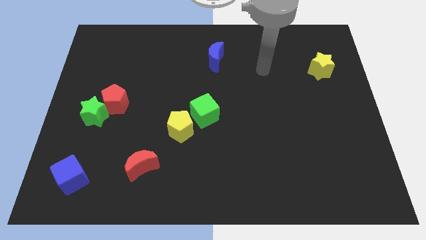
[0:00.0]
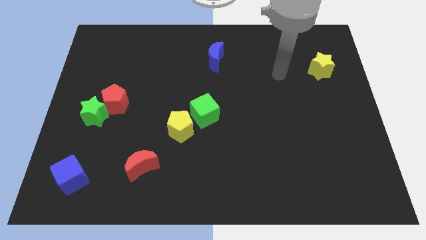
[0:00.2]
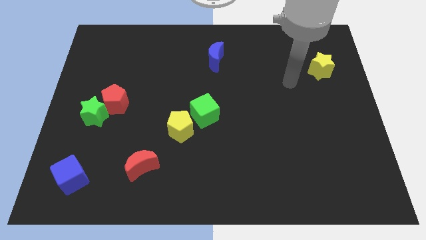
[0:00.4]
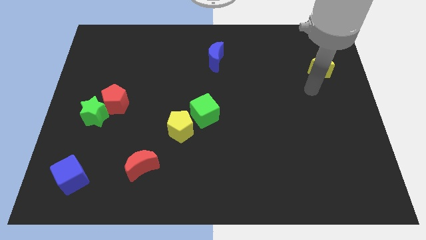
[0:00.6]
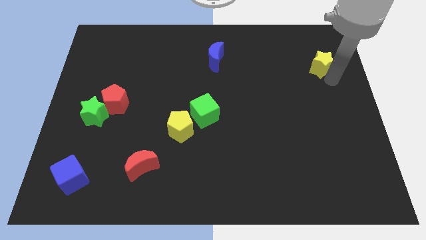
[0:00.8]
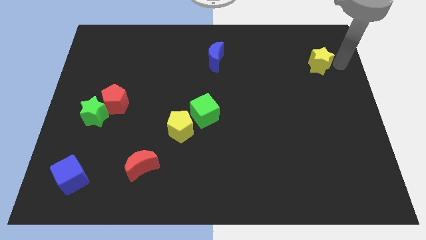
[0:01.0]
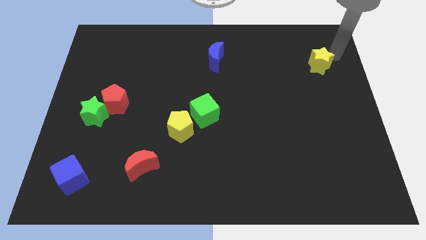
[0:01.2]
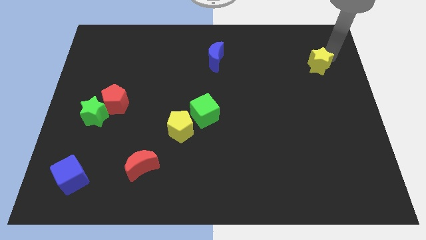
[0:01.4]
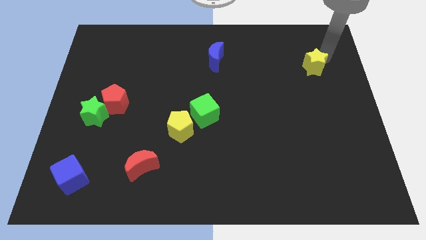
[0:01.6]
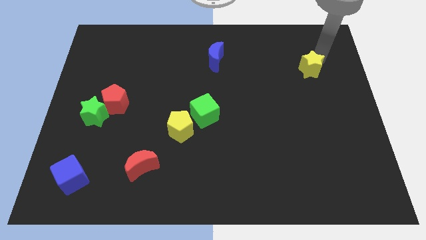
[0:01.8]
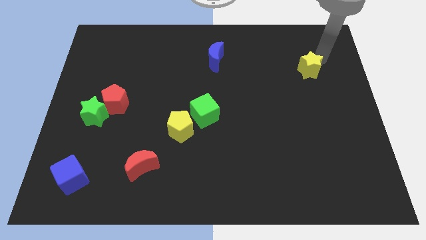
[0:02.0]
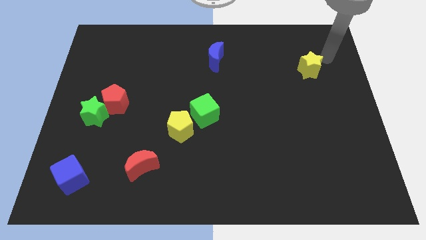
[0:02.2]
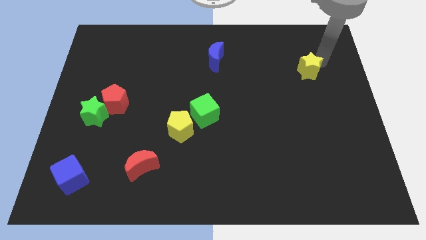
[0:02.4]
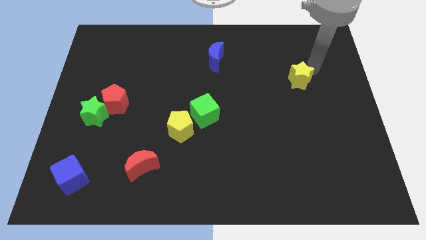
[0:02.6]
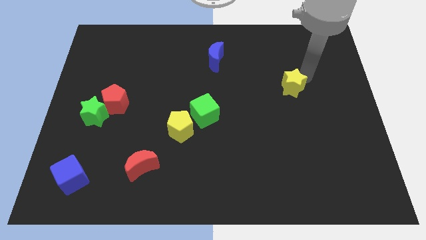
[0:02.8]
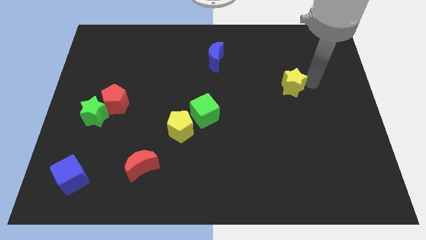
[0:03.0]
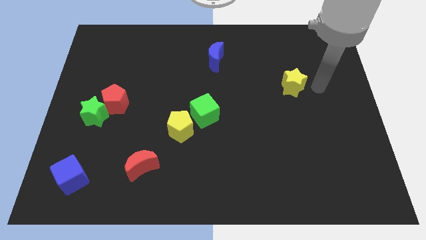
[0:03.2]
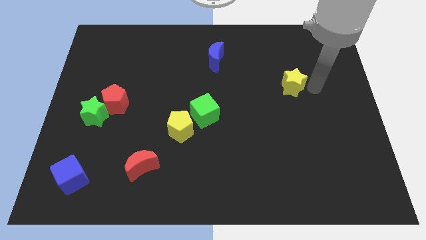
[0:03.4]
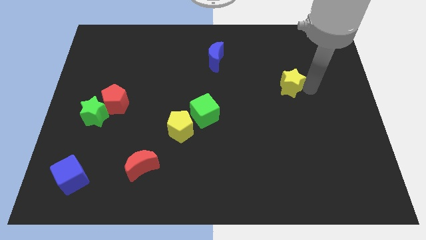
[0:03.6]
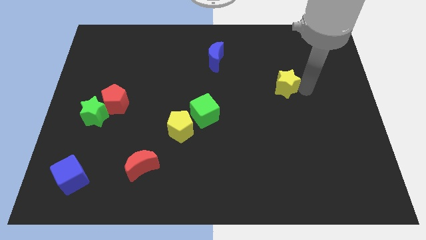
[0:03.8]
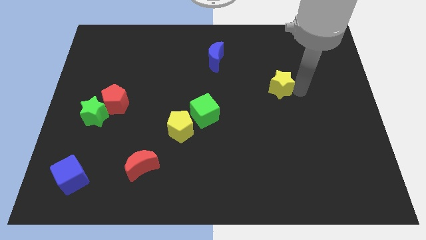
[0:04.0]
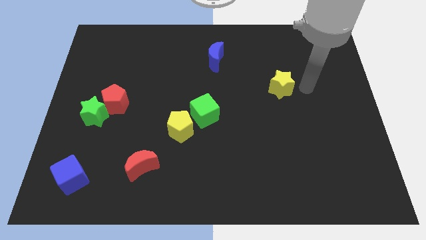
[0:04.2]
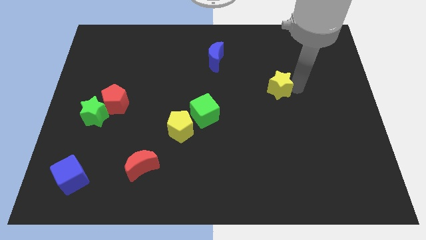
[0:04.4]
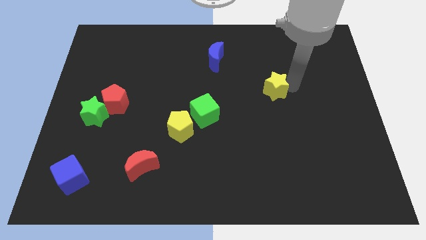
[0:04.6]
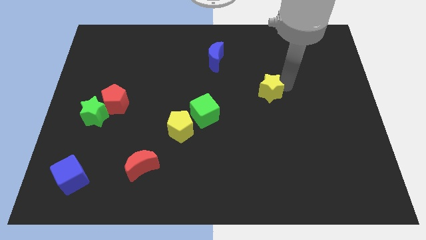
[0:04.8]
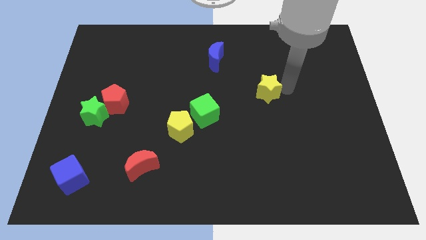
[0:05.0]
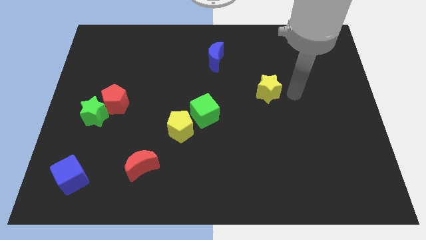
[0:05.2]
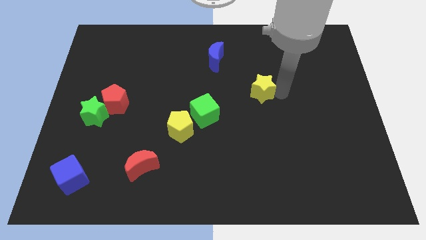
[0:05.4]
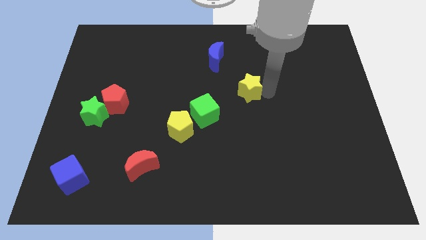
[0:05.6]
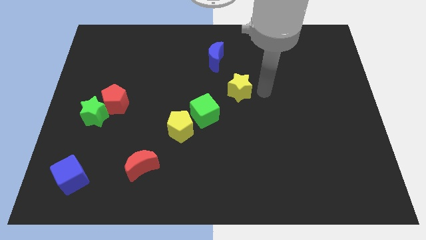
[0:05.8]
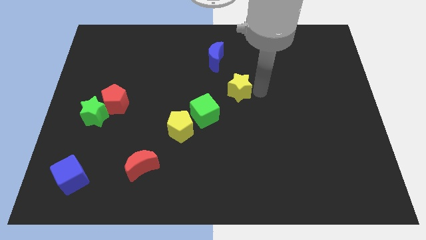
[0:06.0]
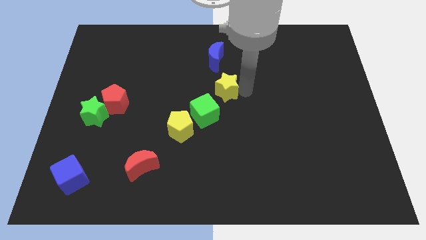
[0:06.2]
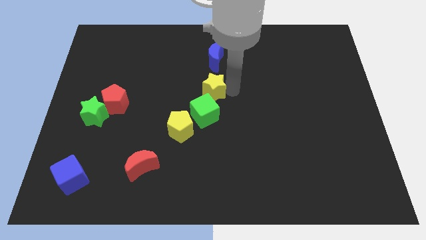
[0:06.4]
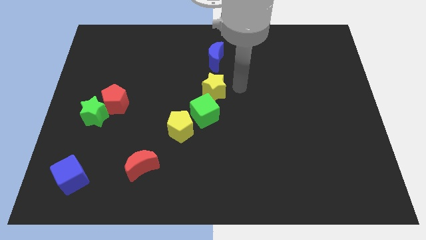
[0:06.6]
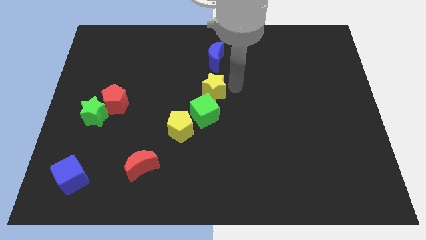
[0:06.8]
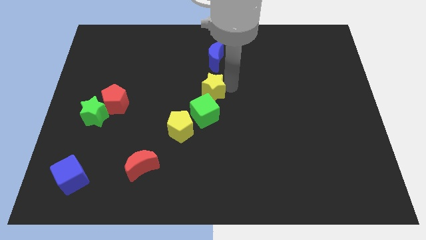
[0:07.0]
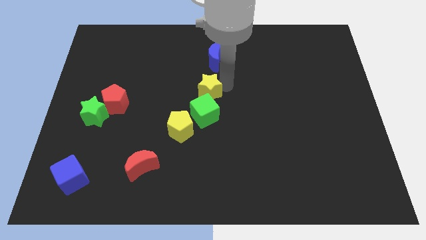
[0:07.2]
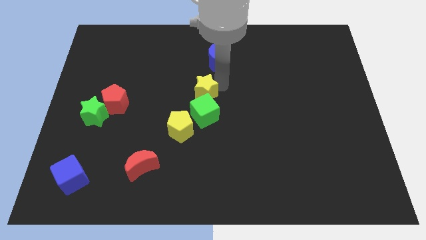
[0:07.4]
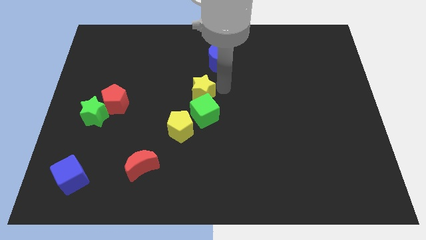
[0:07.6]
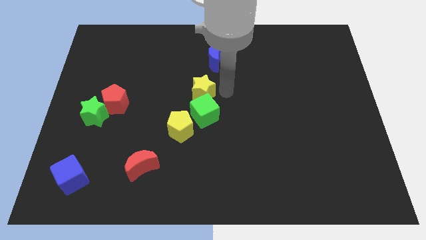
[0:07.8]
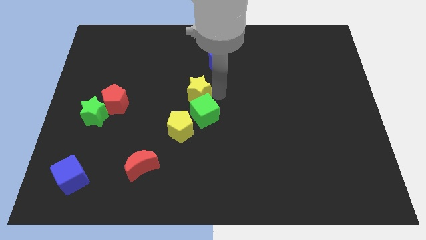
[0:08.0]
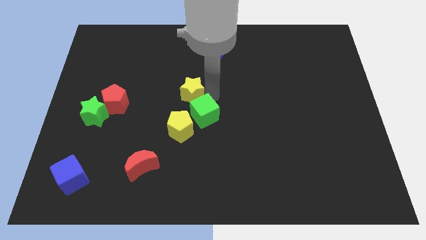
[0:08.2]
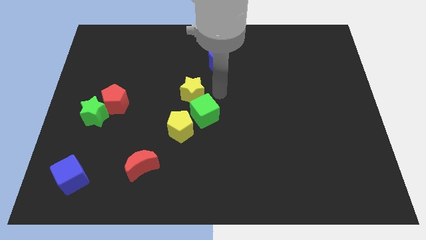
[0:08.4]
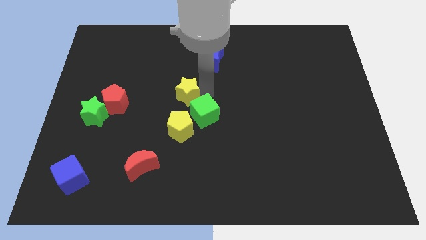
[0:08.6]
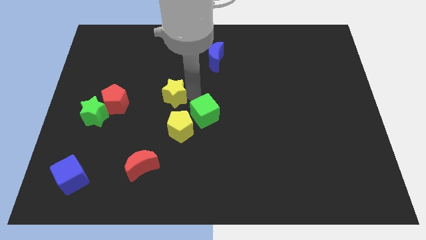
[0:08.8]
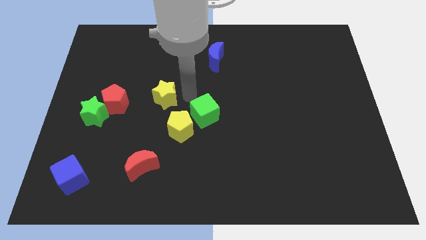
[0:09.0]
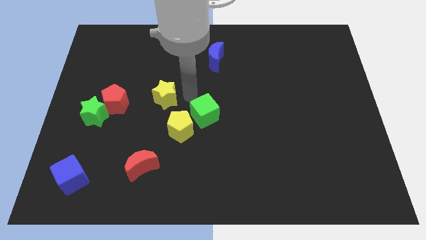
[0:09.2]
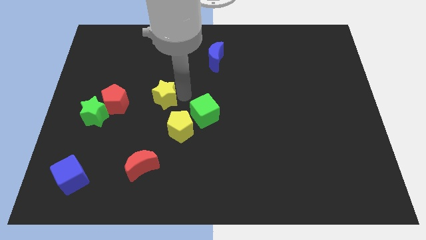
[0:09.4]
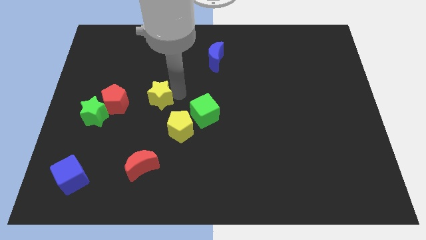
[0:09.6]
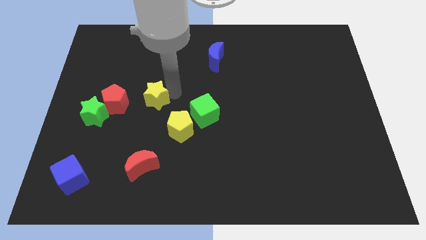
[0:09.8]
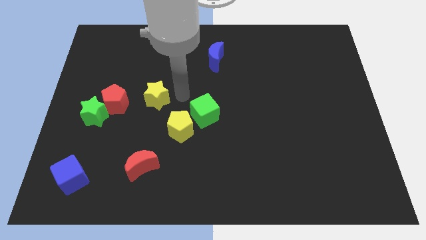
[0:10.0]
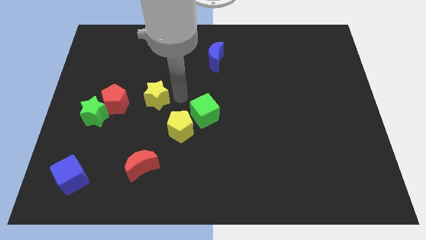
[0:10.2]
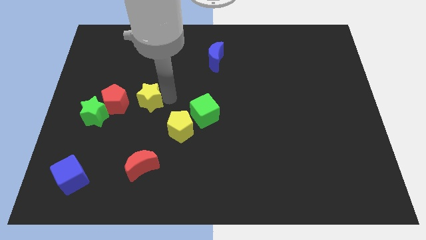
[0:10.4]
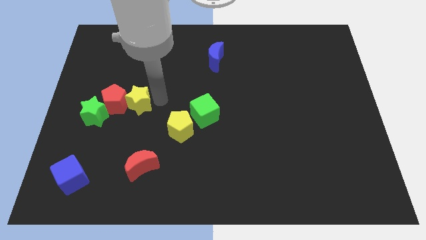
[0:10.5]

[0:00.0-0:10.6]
put the yellow star towards the red pentagon

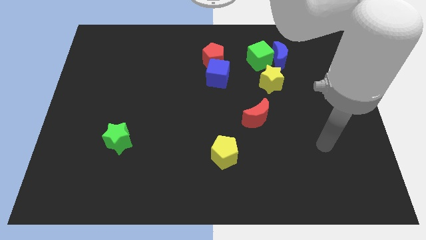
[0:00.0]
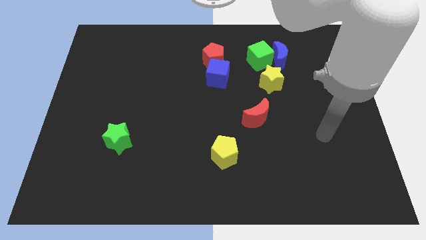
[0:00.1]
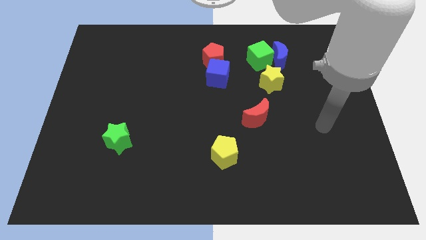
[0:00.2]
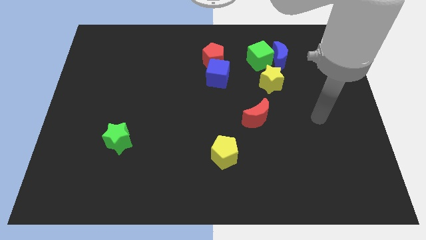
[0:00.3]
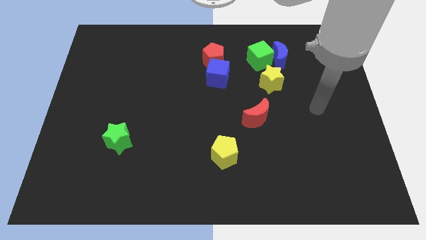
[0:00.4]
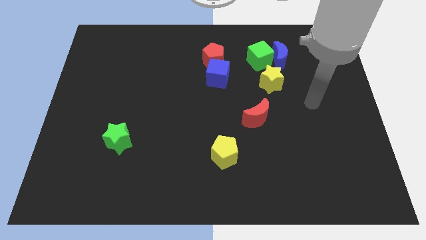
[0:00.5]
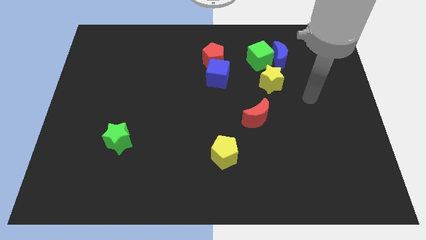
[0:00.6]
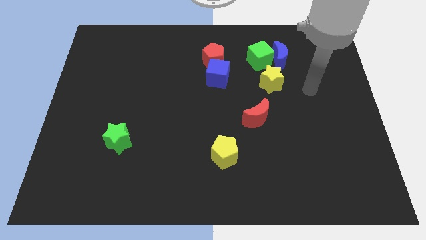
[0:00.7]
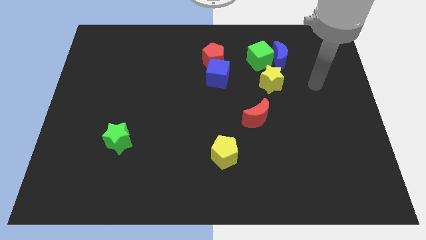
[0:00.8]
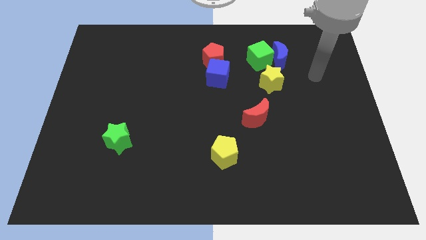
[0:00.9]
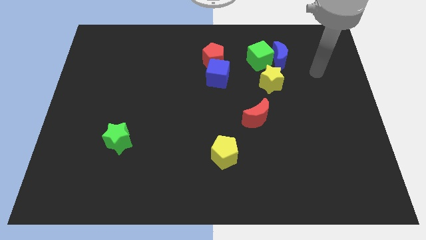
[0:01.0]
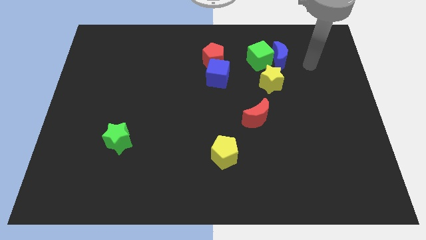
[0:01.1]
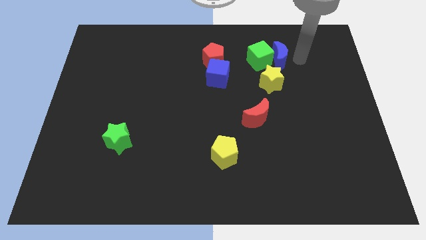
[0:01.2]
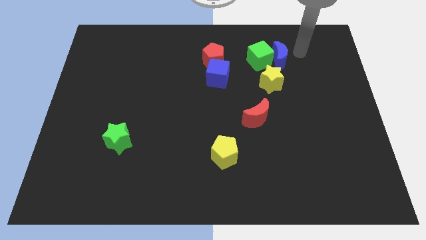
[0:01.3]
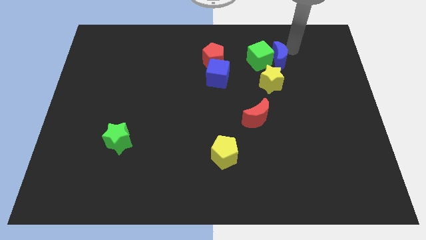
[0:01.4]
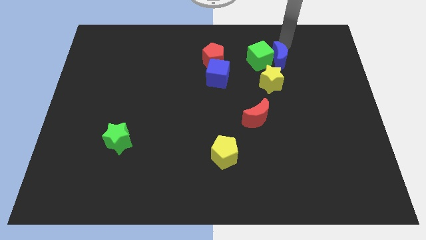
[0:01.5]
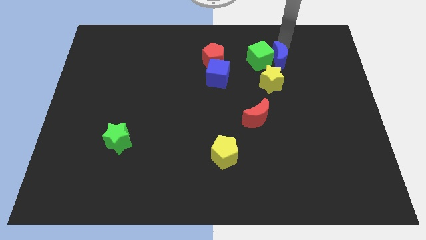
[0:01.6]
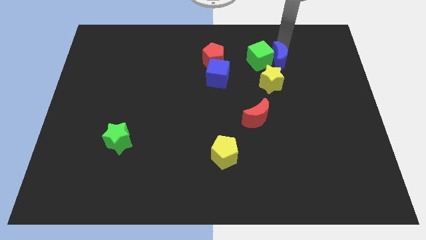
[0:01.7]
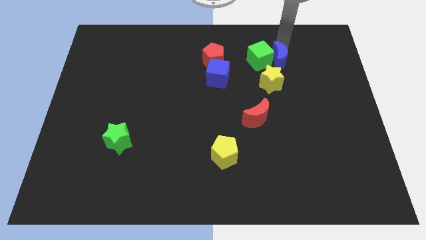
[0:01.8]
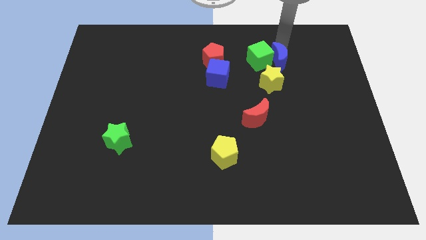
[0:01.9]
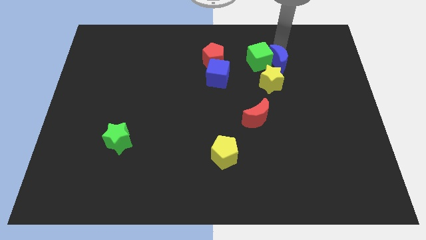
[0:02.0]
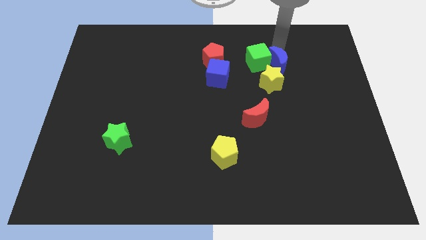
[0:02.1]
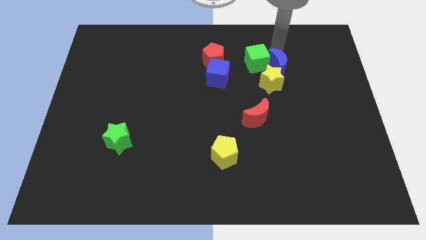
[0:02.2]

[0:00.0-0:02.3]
slide the blue moon close to the yellow star
